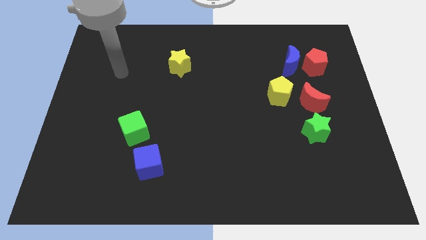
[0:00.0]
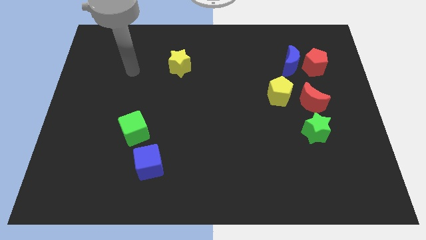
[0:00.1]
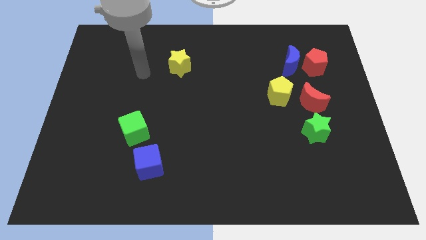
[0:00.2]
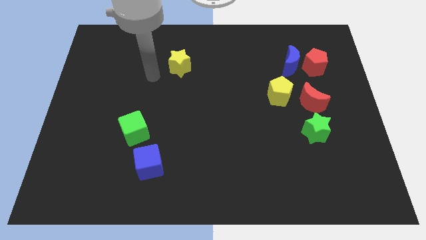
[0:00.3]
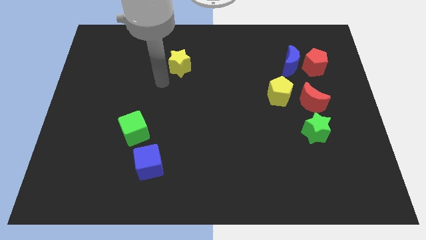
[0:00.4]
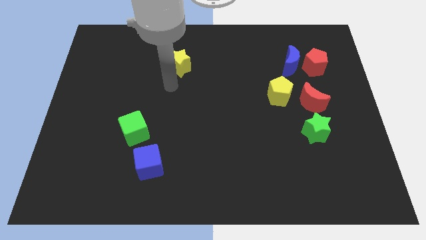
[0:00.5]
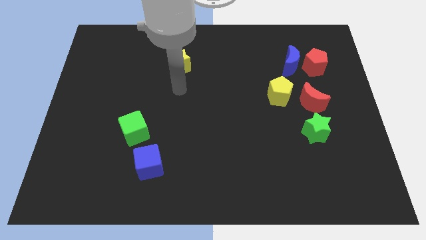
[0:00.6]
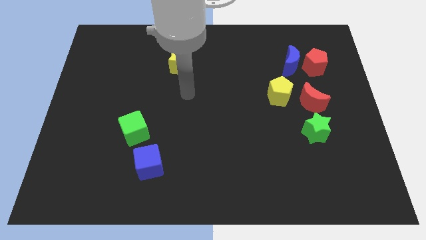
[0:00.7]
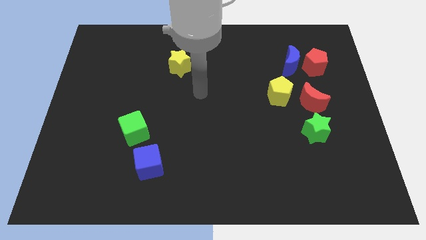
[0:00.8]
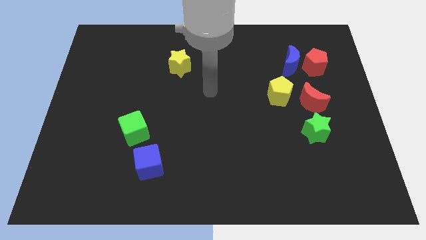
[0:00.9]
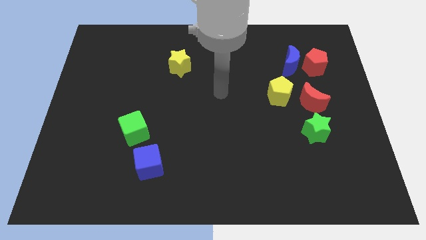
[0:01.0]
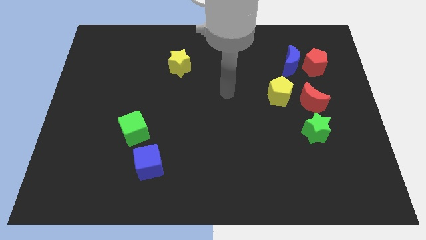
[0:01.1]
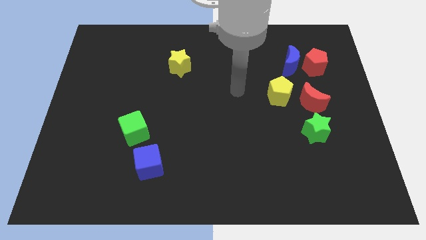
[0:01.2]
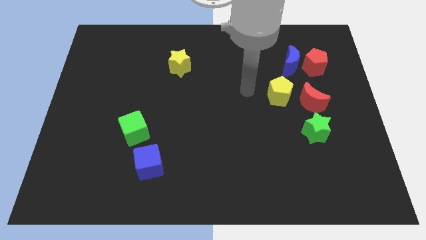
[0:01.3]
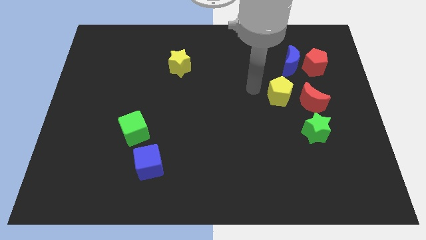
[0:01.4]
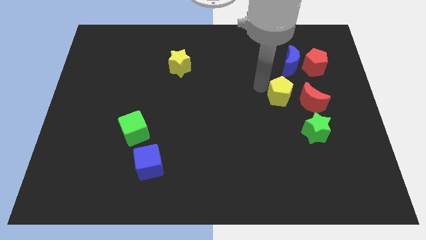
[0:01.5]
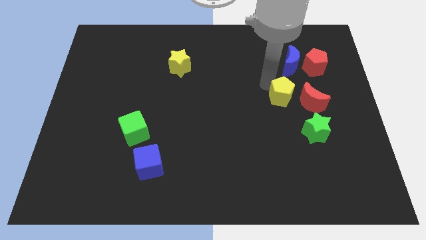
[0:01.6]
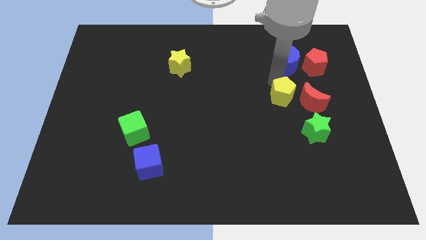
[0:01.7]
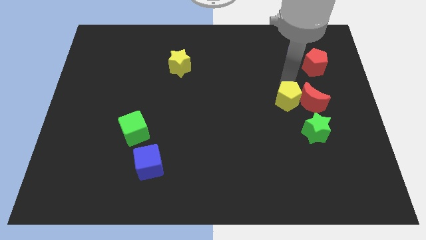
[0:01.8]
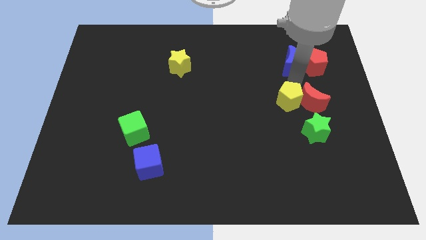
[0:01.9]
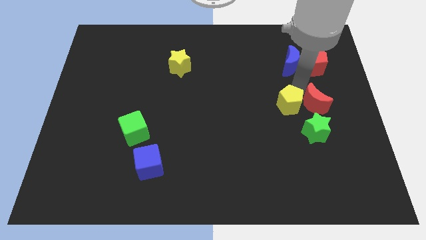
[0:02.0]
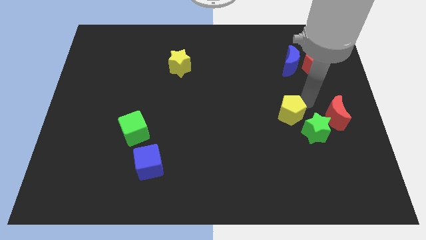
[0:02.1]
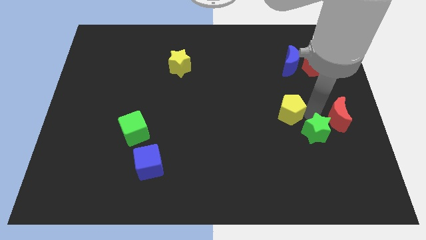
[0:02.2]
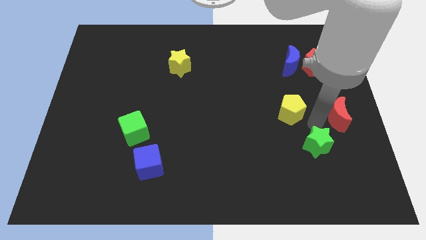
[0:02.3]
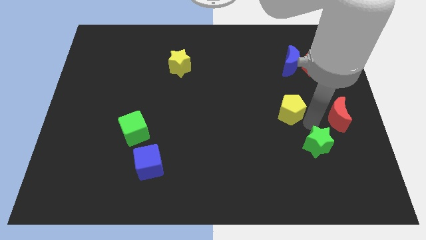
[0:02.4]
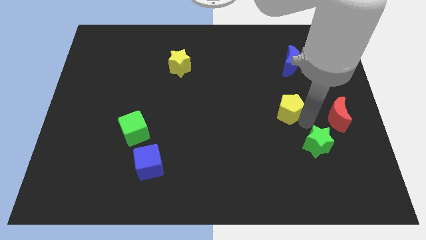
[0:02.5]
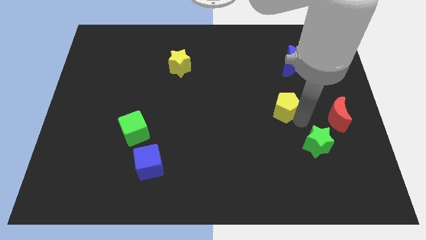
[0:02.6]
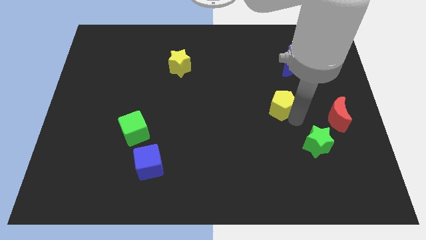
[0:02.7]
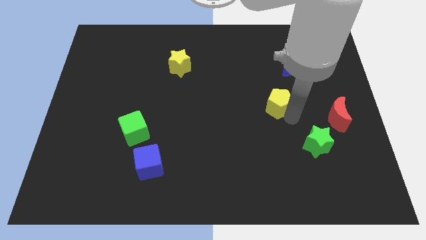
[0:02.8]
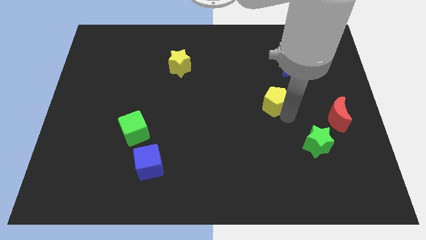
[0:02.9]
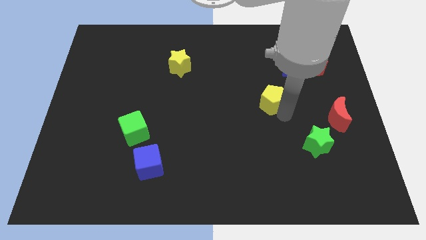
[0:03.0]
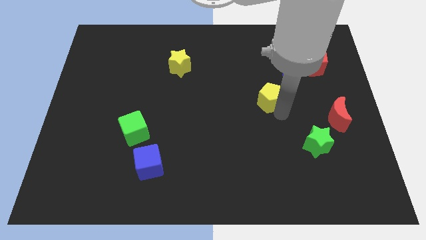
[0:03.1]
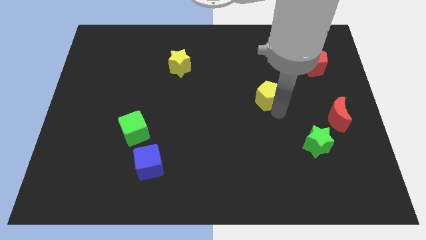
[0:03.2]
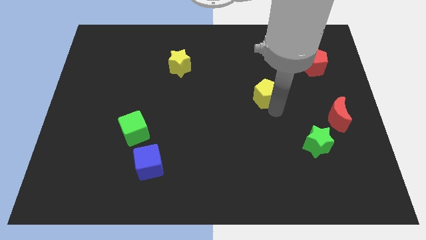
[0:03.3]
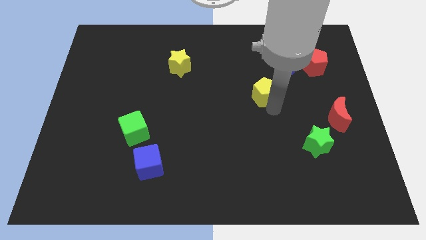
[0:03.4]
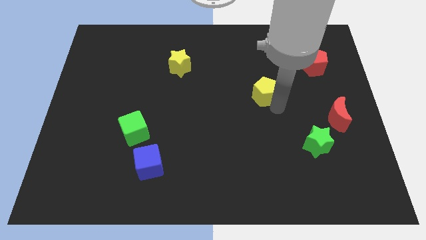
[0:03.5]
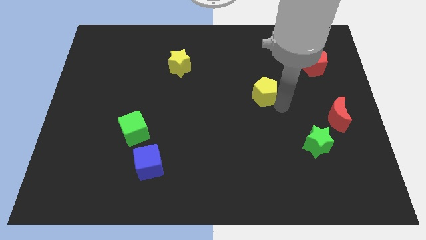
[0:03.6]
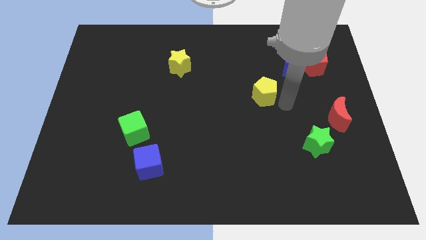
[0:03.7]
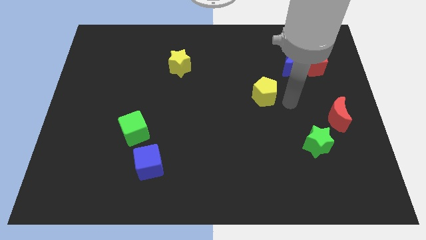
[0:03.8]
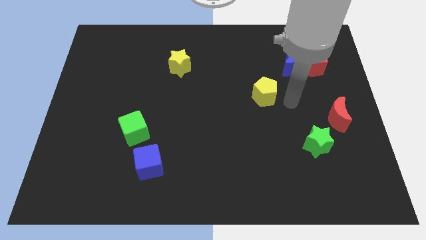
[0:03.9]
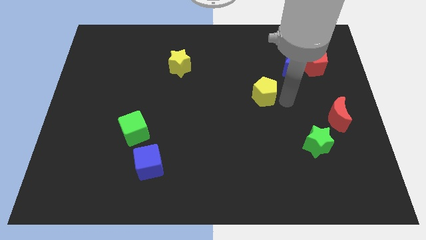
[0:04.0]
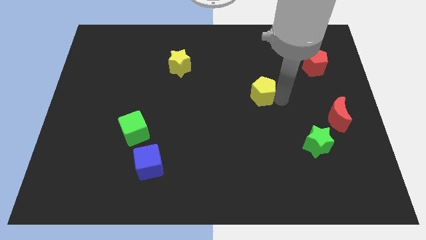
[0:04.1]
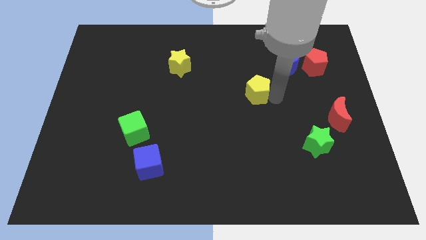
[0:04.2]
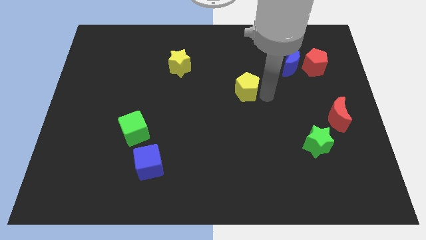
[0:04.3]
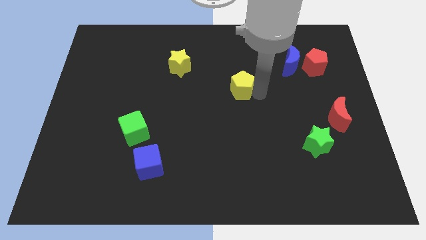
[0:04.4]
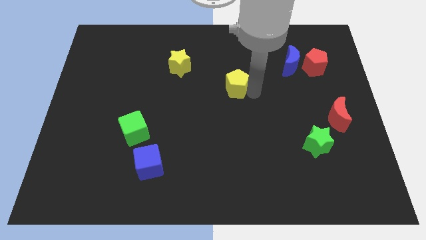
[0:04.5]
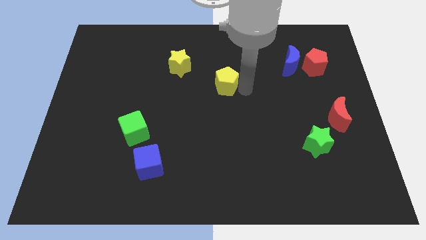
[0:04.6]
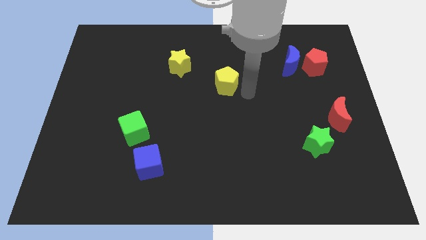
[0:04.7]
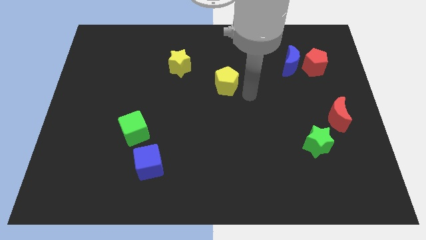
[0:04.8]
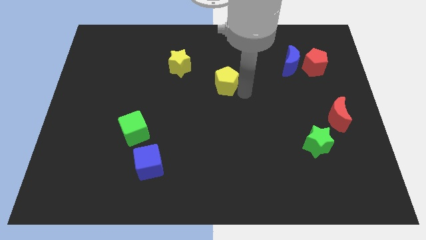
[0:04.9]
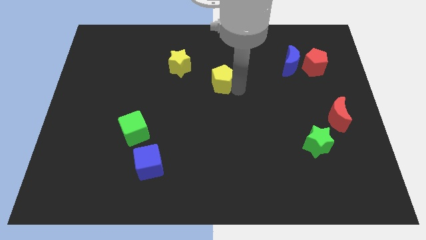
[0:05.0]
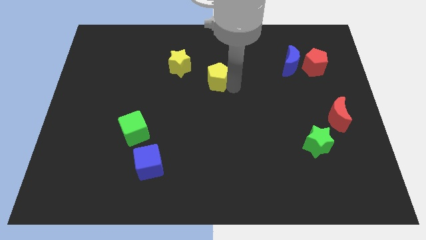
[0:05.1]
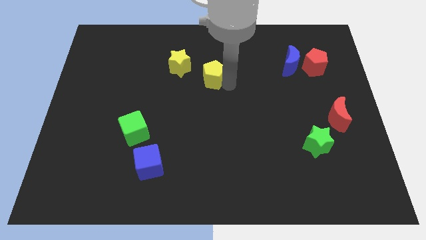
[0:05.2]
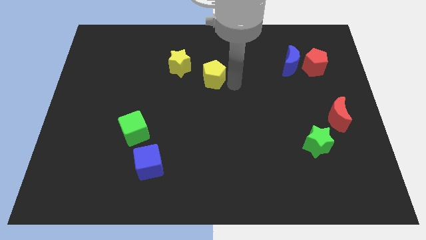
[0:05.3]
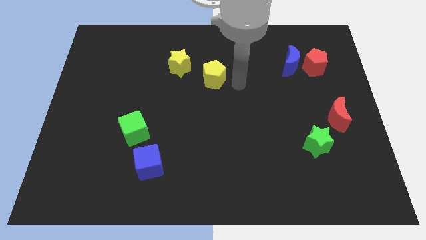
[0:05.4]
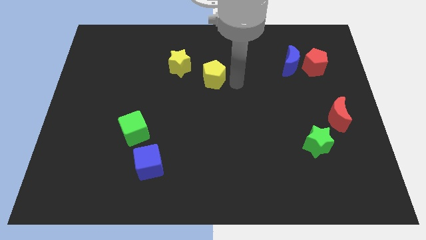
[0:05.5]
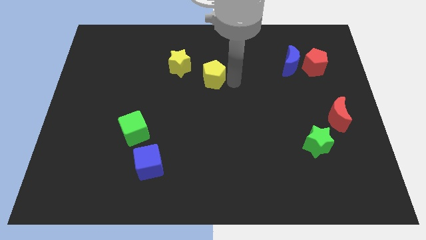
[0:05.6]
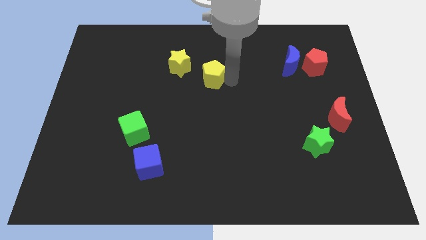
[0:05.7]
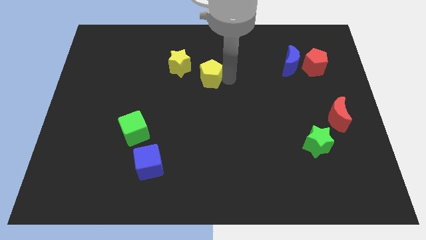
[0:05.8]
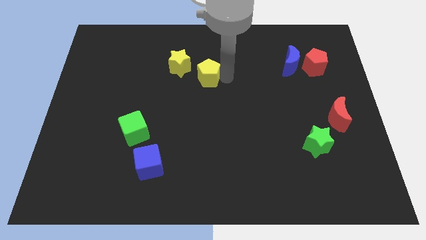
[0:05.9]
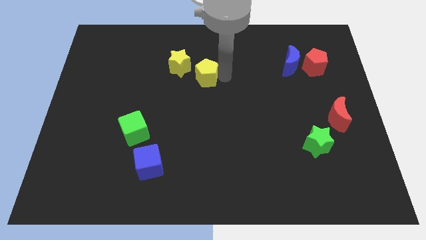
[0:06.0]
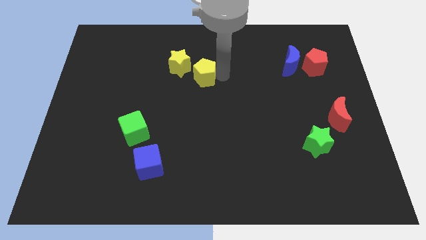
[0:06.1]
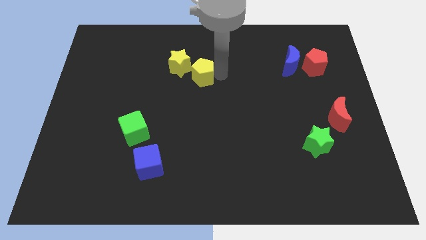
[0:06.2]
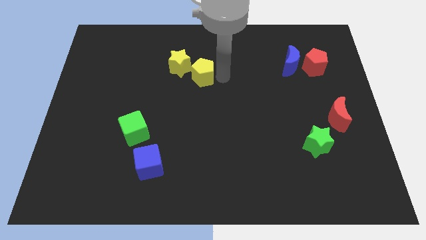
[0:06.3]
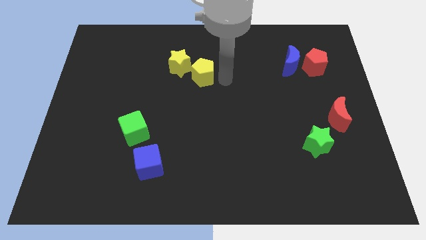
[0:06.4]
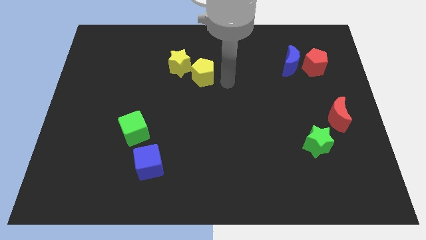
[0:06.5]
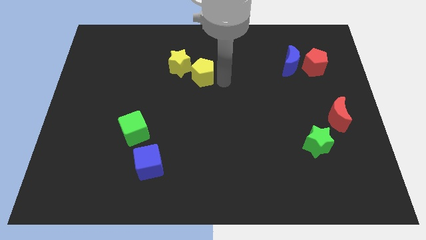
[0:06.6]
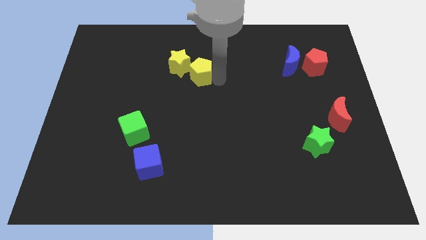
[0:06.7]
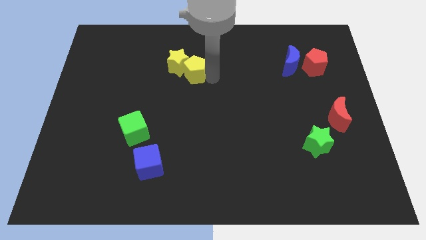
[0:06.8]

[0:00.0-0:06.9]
push the yellow pentagon next to the yellow star

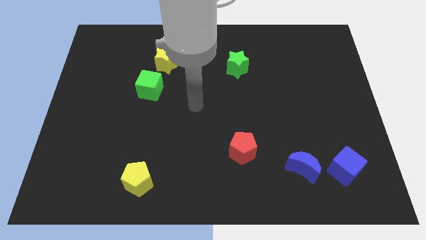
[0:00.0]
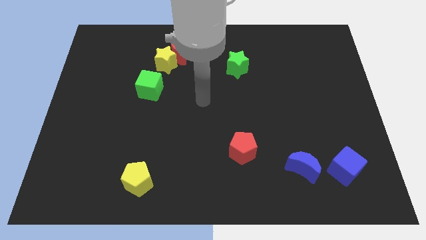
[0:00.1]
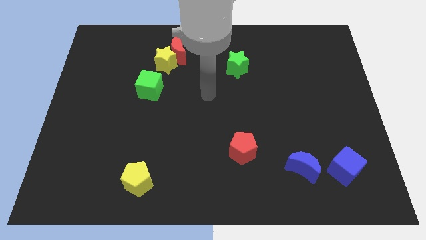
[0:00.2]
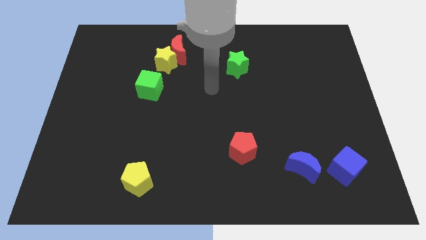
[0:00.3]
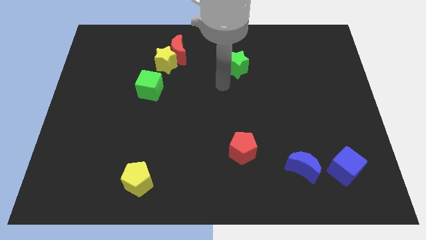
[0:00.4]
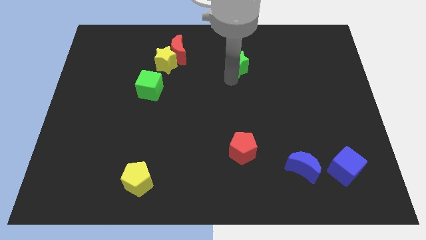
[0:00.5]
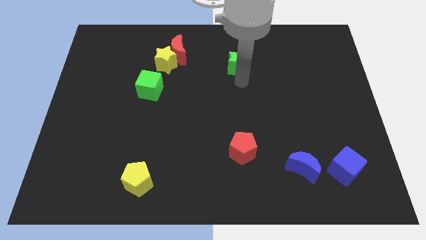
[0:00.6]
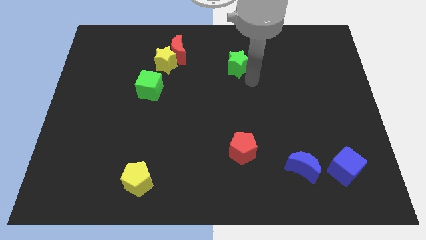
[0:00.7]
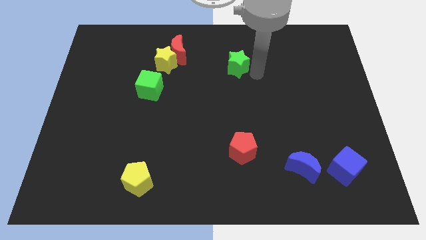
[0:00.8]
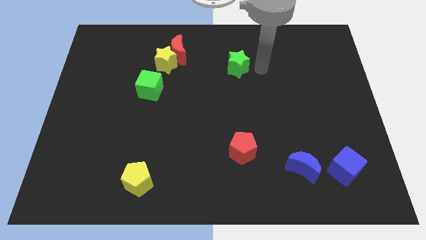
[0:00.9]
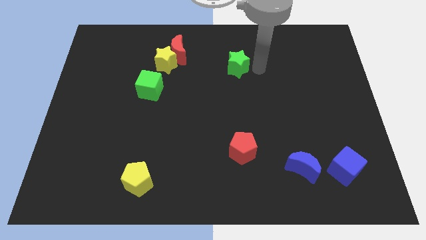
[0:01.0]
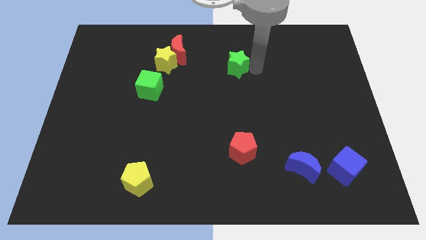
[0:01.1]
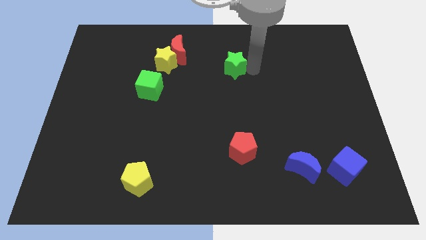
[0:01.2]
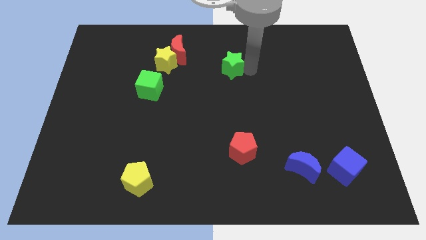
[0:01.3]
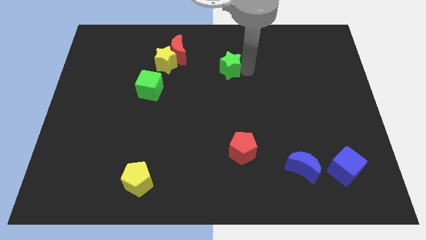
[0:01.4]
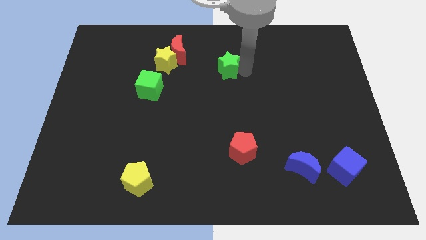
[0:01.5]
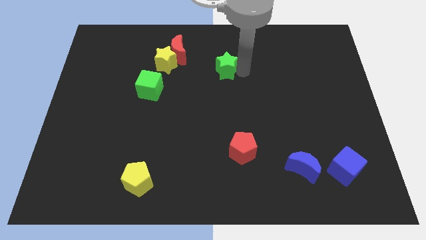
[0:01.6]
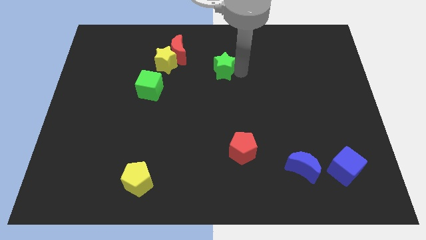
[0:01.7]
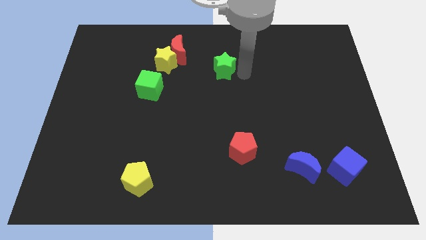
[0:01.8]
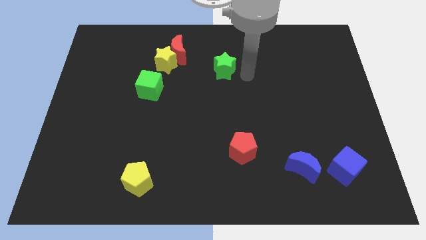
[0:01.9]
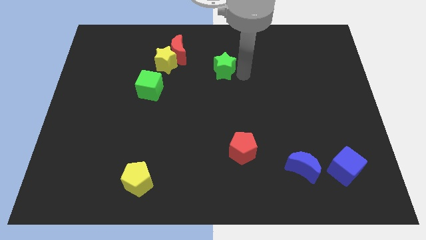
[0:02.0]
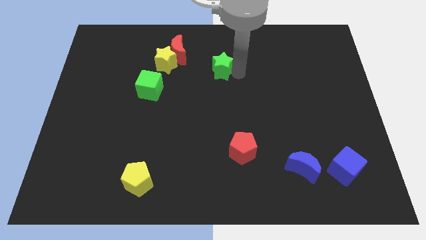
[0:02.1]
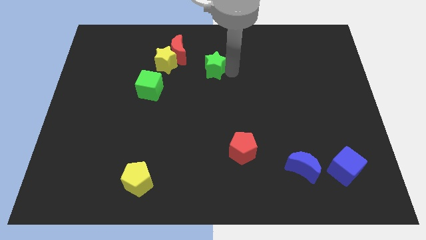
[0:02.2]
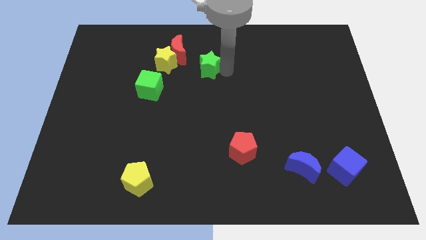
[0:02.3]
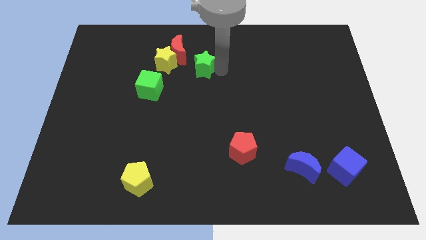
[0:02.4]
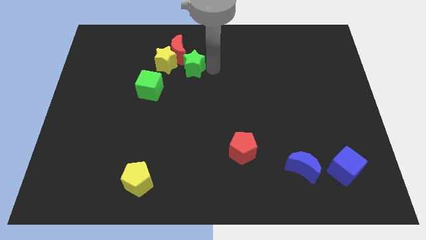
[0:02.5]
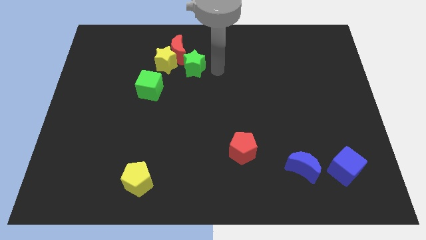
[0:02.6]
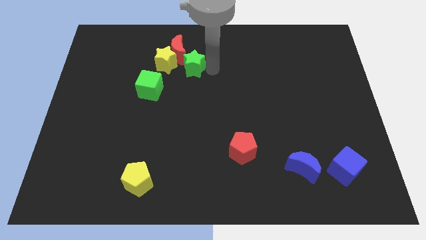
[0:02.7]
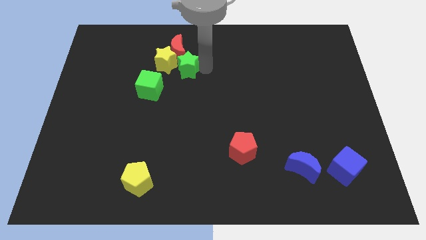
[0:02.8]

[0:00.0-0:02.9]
move the green star close to the yellow star
